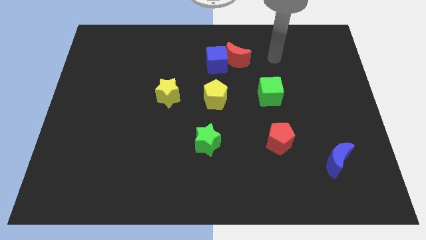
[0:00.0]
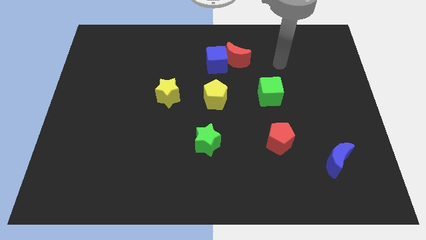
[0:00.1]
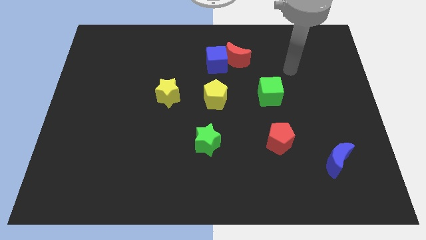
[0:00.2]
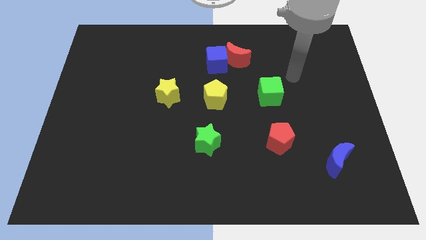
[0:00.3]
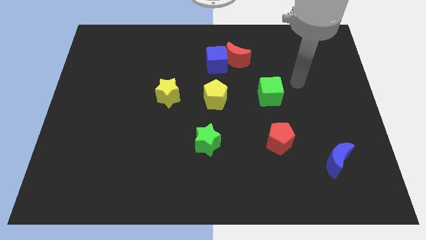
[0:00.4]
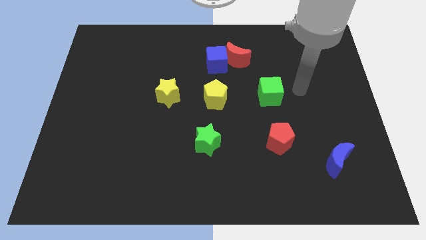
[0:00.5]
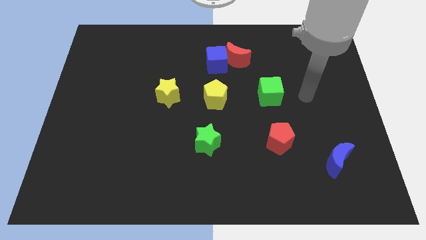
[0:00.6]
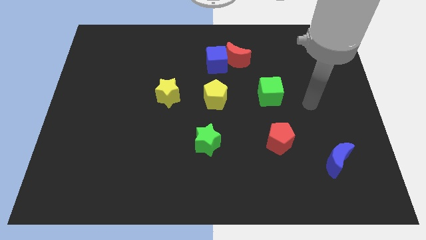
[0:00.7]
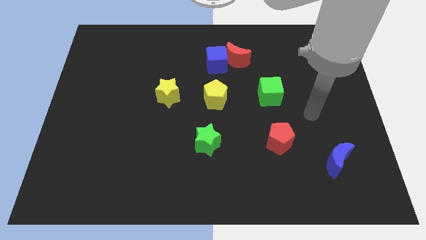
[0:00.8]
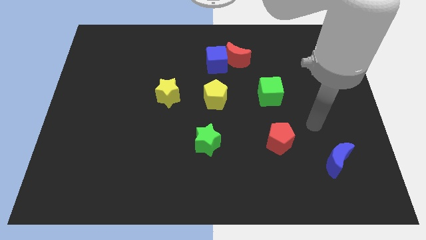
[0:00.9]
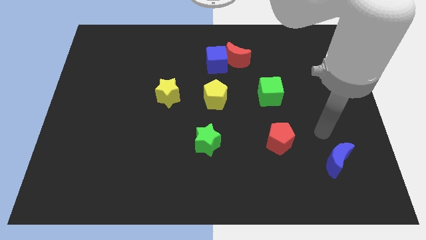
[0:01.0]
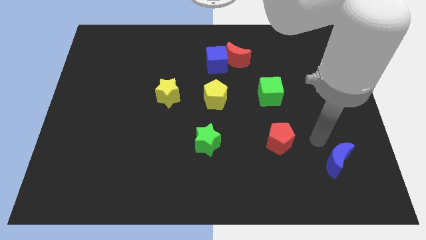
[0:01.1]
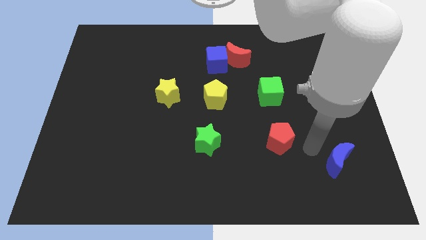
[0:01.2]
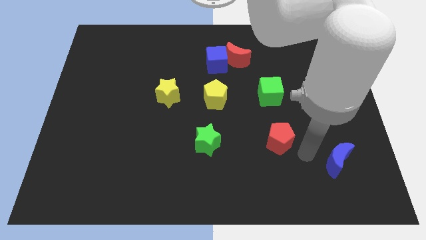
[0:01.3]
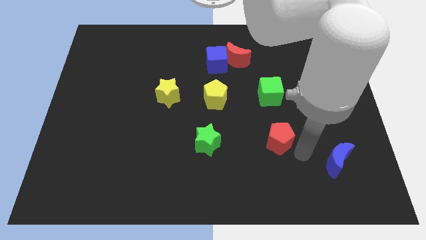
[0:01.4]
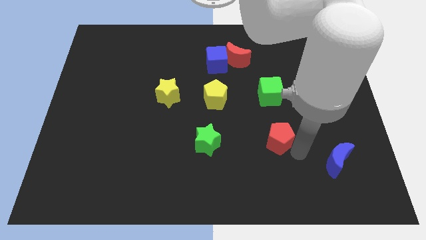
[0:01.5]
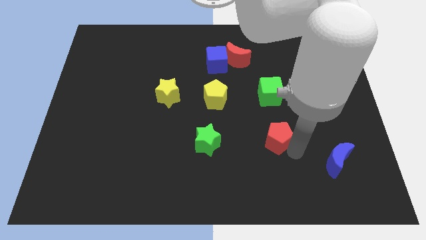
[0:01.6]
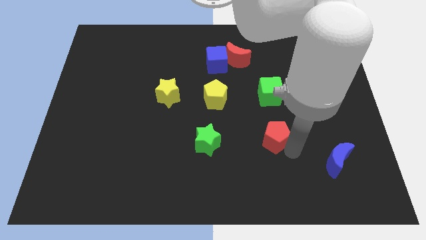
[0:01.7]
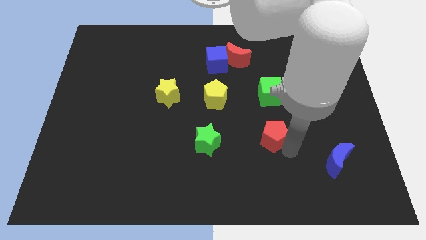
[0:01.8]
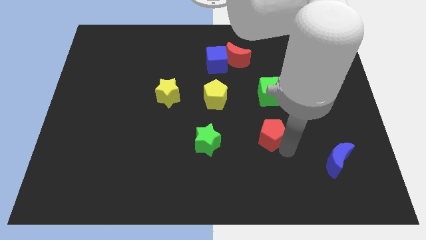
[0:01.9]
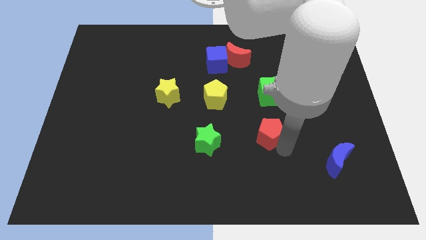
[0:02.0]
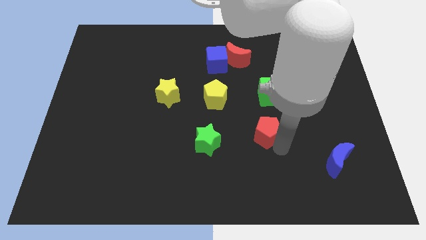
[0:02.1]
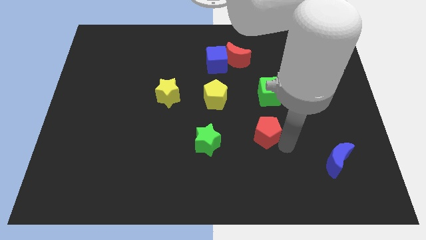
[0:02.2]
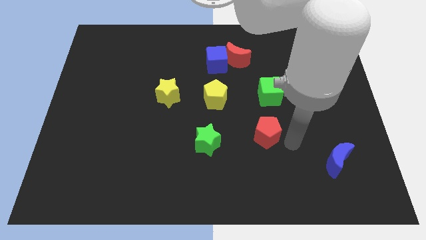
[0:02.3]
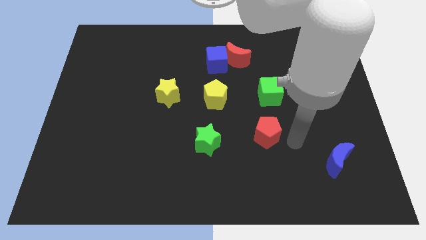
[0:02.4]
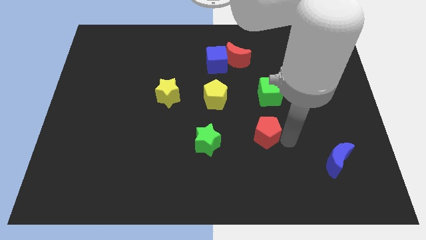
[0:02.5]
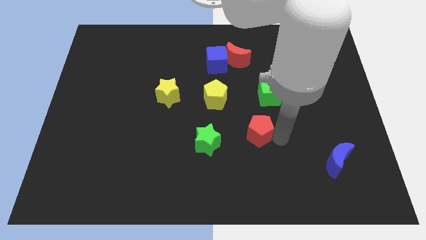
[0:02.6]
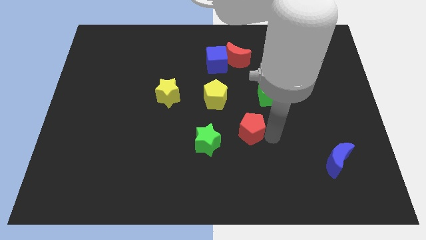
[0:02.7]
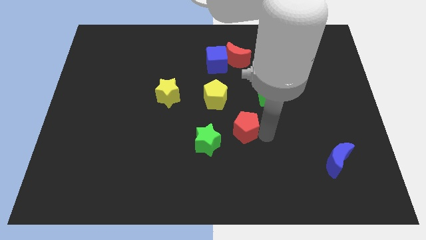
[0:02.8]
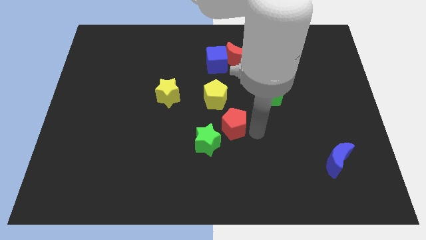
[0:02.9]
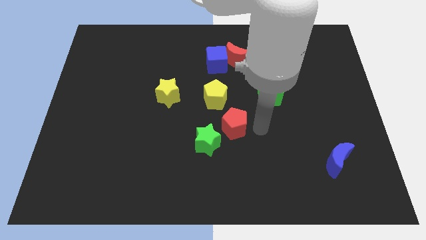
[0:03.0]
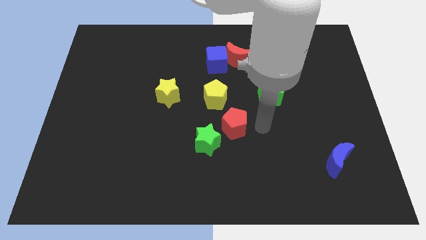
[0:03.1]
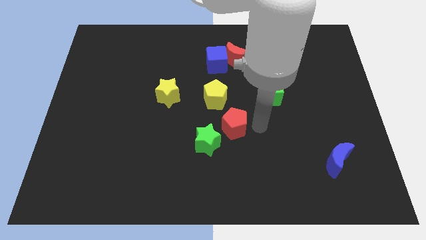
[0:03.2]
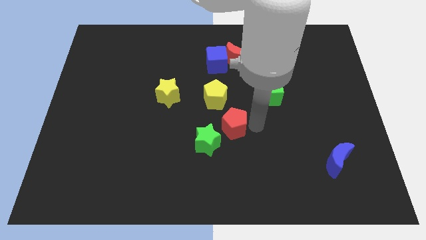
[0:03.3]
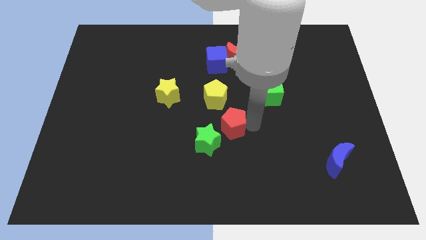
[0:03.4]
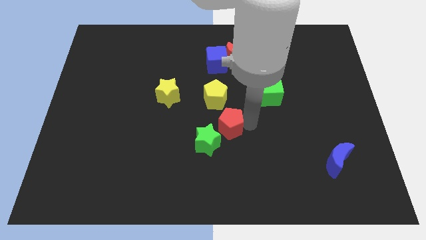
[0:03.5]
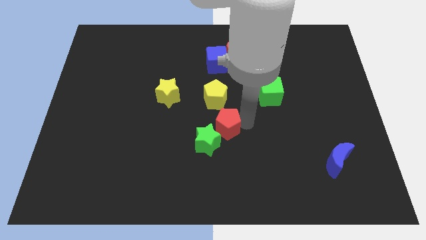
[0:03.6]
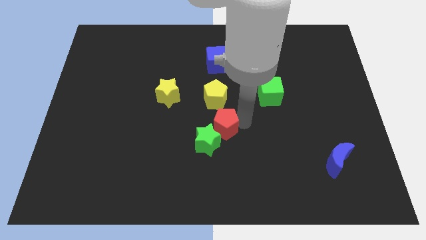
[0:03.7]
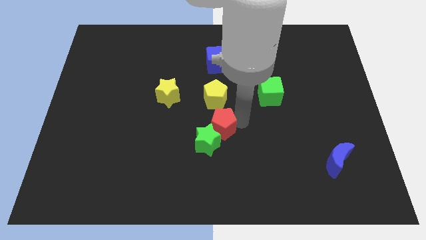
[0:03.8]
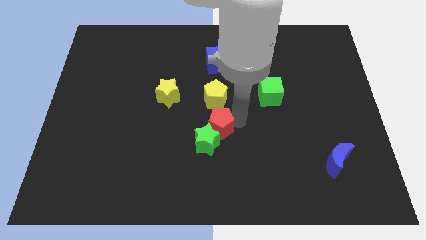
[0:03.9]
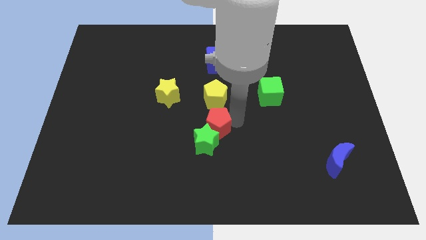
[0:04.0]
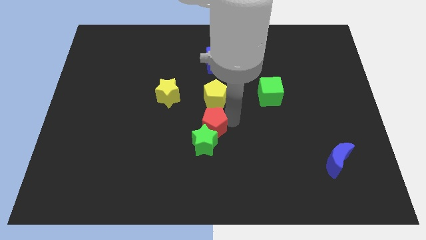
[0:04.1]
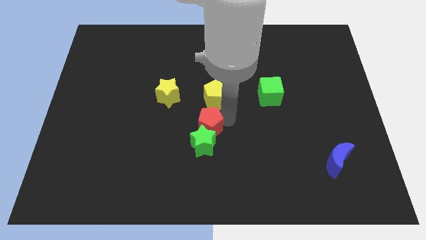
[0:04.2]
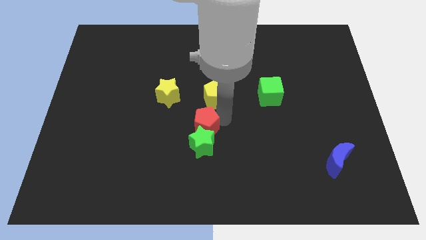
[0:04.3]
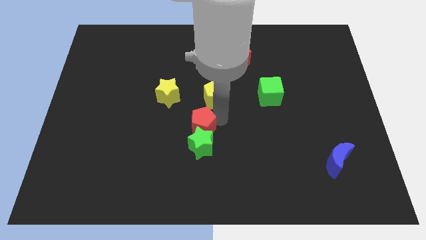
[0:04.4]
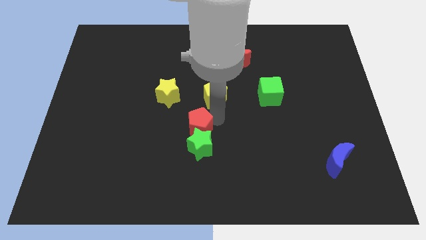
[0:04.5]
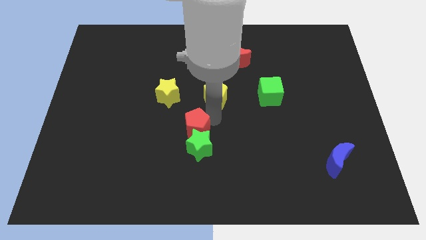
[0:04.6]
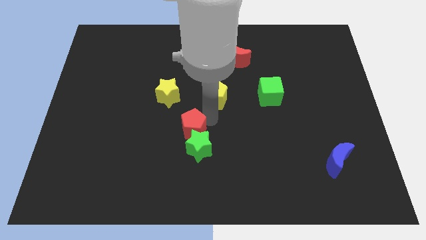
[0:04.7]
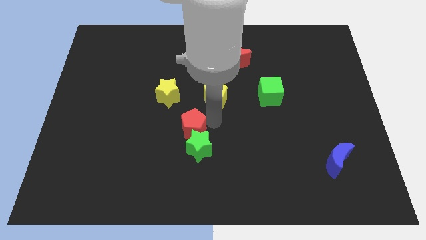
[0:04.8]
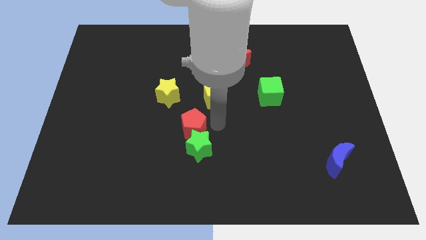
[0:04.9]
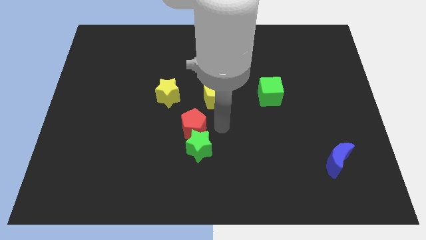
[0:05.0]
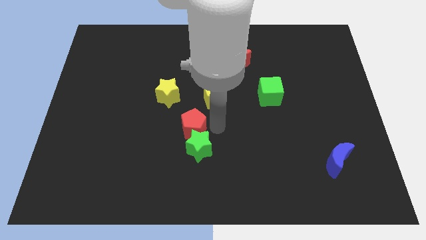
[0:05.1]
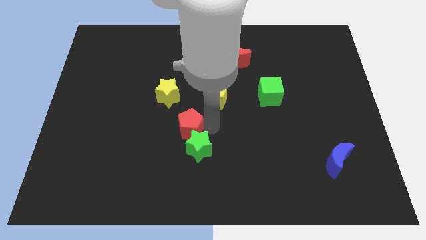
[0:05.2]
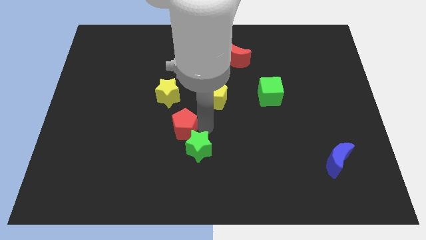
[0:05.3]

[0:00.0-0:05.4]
move the red pentagon to the left

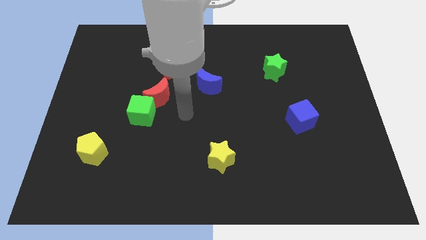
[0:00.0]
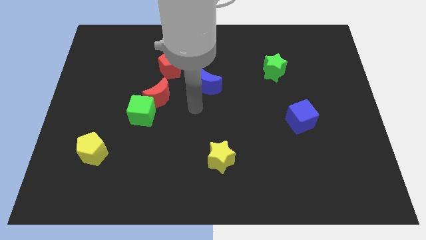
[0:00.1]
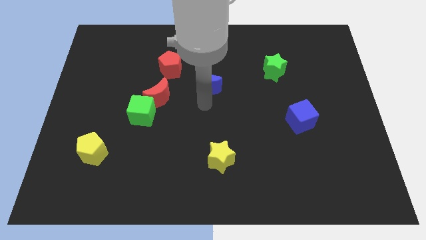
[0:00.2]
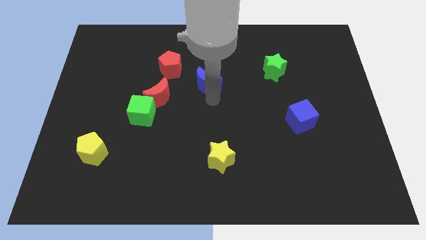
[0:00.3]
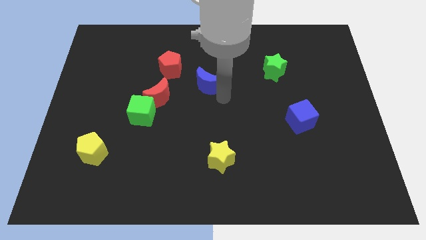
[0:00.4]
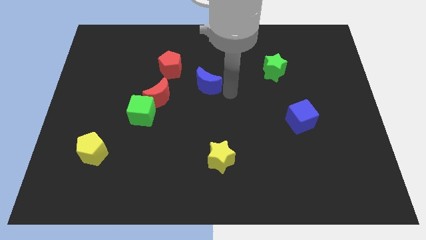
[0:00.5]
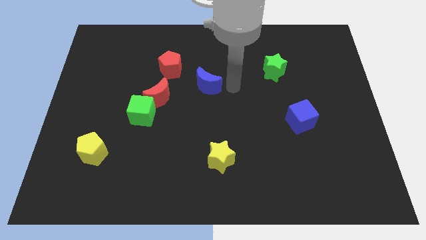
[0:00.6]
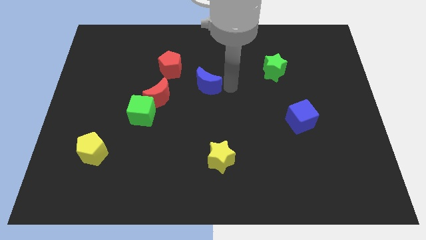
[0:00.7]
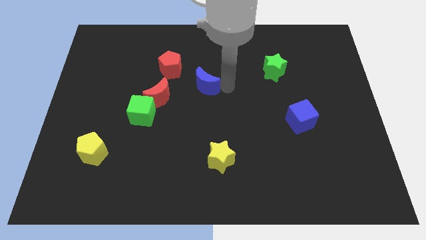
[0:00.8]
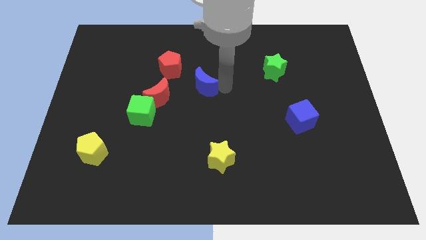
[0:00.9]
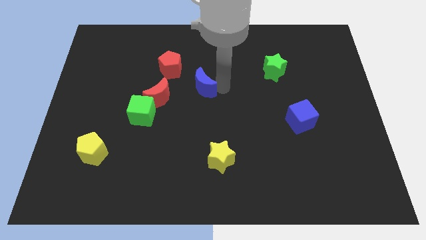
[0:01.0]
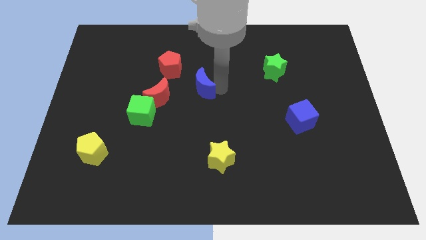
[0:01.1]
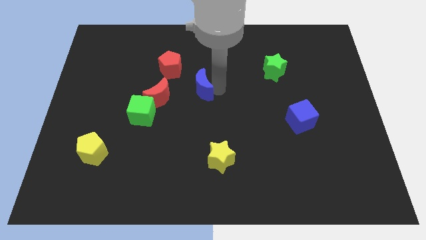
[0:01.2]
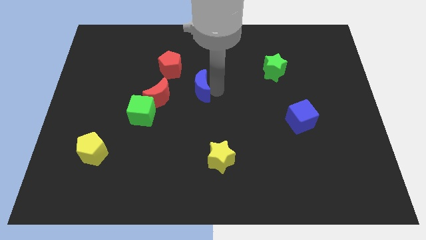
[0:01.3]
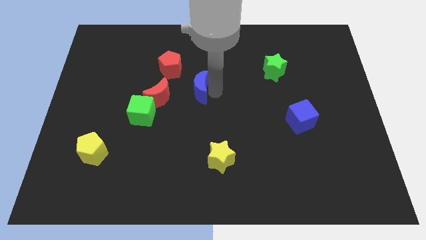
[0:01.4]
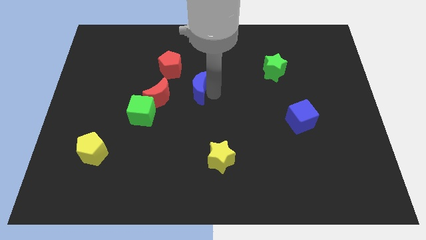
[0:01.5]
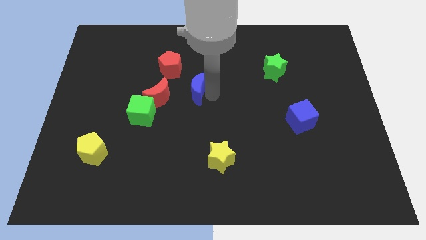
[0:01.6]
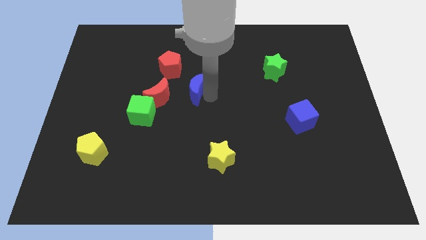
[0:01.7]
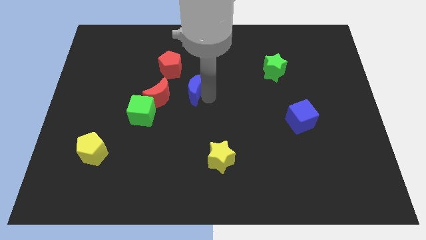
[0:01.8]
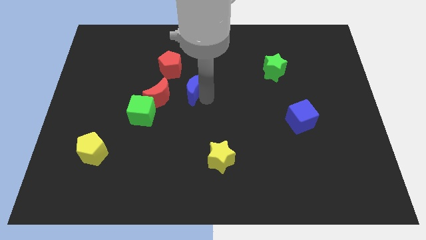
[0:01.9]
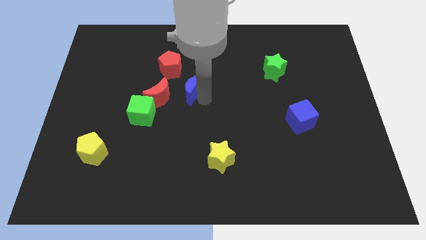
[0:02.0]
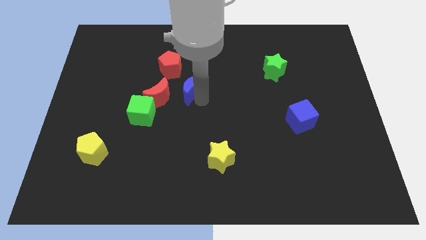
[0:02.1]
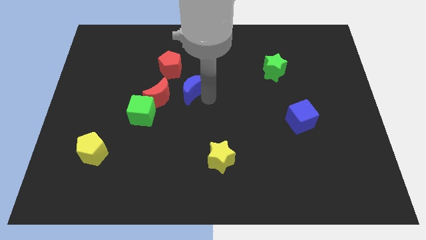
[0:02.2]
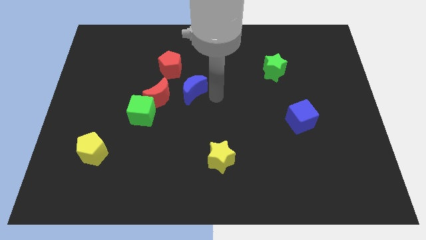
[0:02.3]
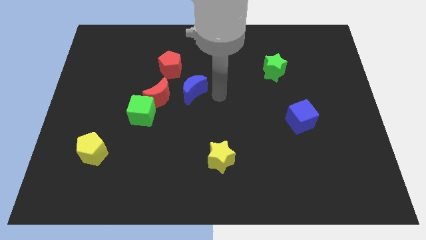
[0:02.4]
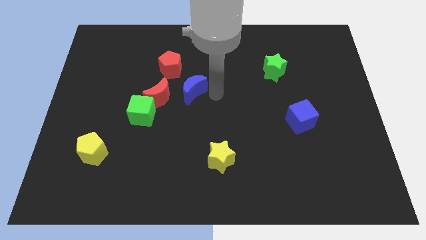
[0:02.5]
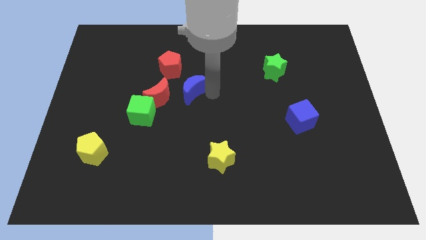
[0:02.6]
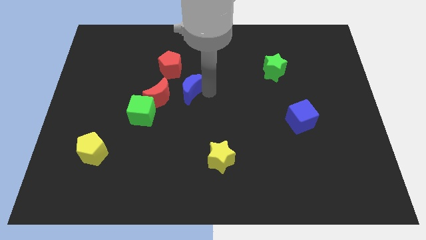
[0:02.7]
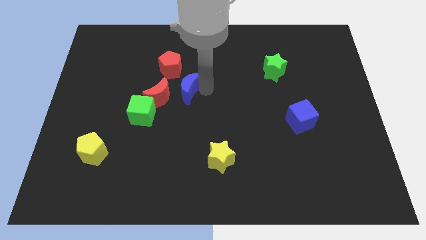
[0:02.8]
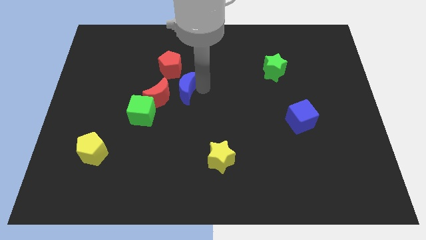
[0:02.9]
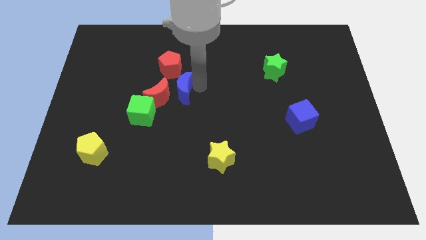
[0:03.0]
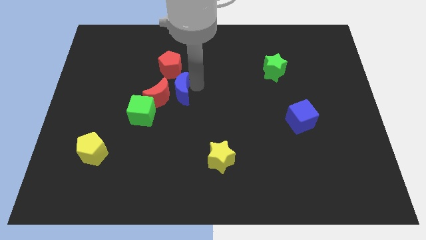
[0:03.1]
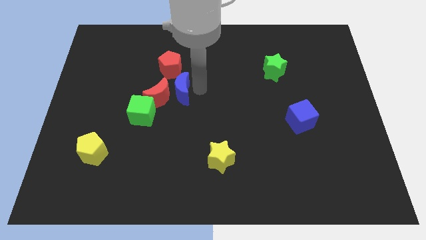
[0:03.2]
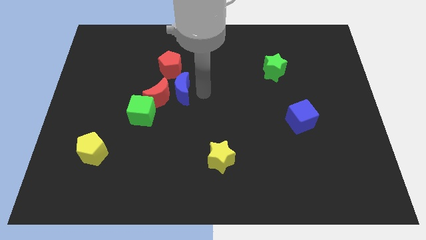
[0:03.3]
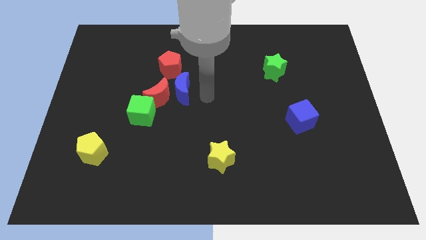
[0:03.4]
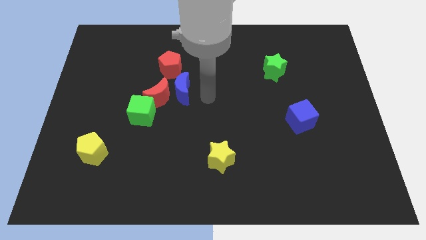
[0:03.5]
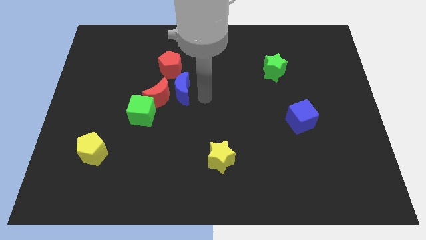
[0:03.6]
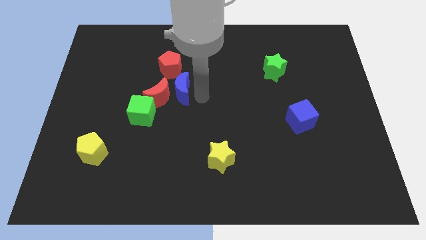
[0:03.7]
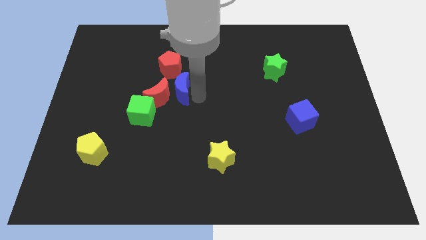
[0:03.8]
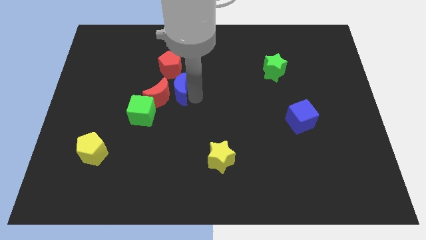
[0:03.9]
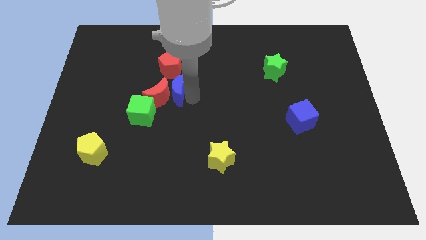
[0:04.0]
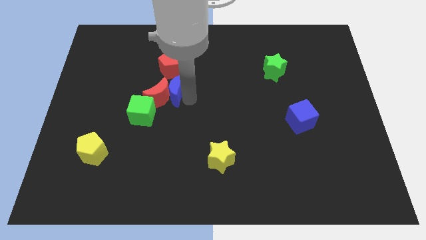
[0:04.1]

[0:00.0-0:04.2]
slightly push the blue moon to the left
